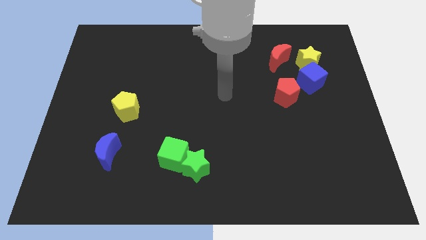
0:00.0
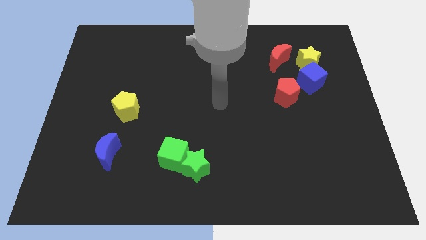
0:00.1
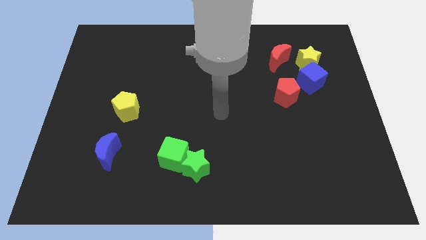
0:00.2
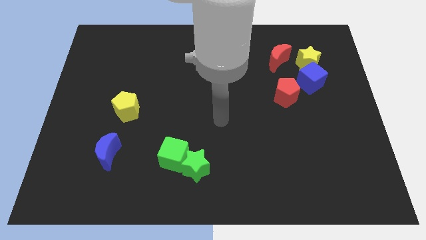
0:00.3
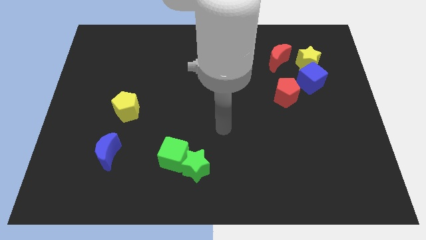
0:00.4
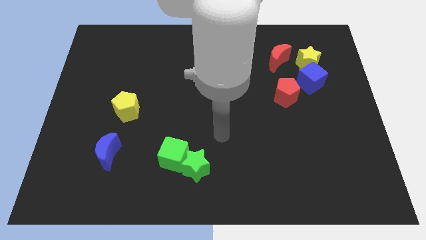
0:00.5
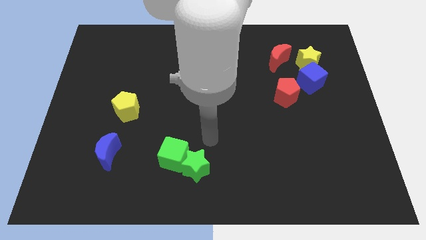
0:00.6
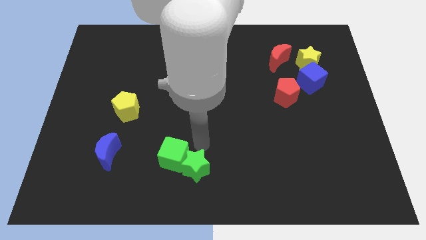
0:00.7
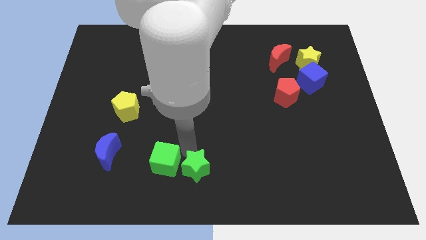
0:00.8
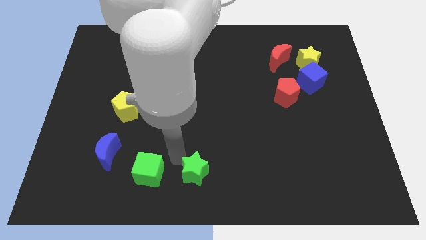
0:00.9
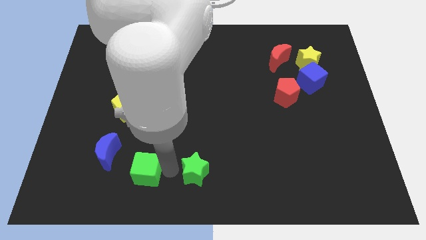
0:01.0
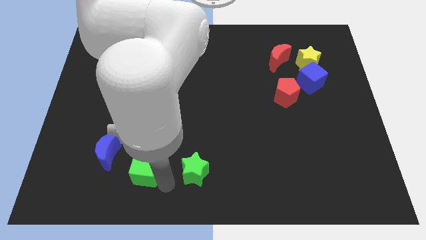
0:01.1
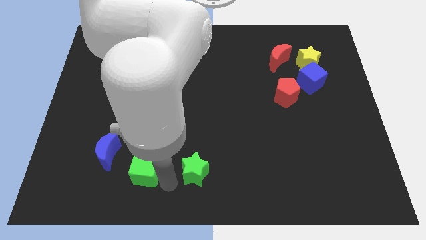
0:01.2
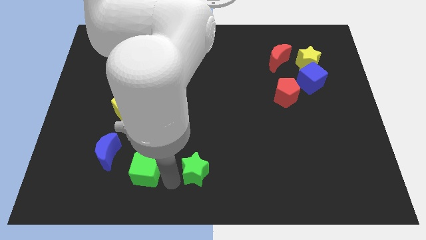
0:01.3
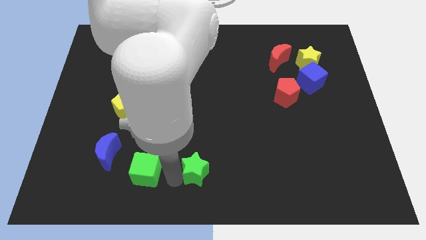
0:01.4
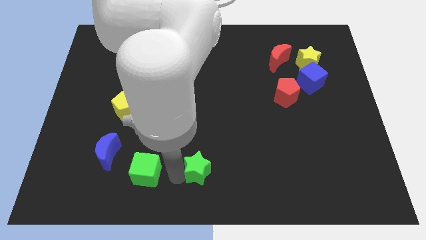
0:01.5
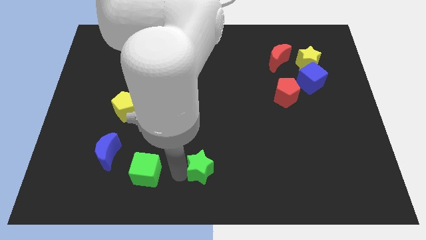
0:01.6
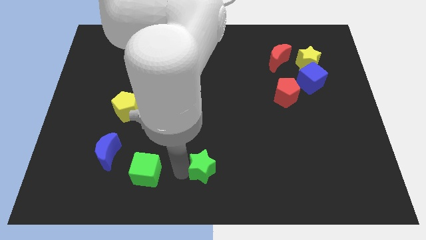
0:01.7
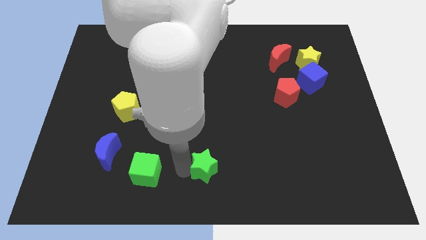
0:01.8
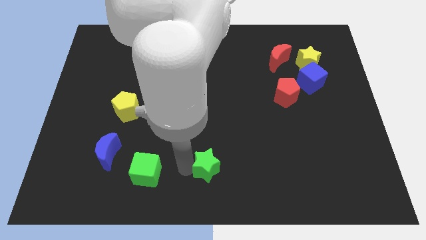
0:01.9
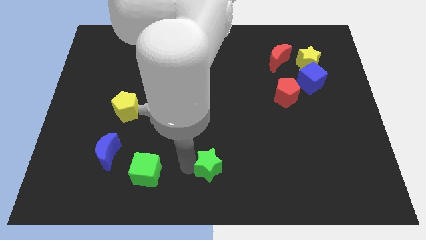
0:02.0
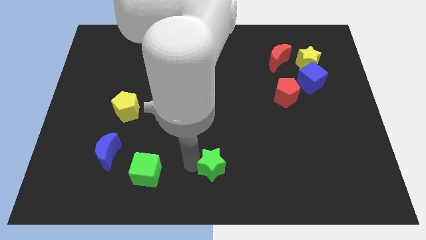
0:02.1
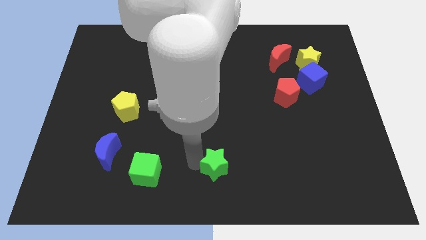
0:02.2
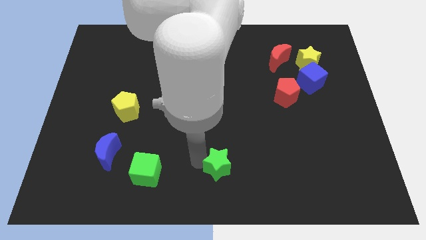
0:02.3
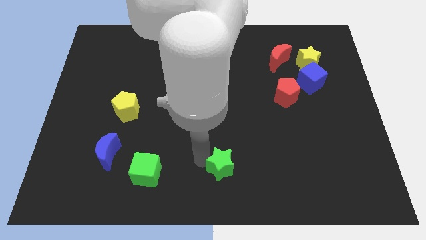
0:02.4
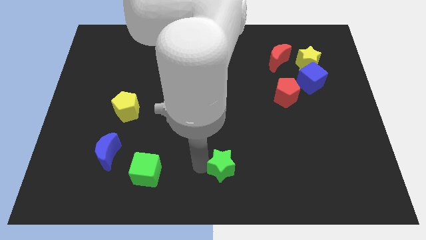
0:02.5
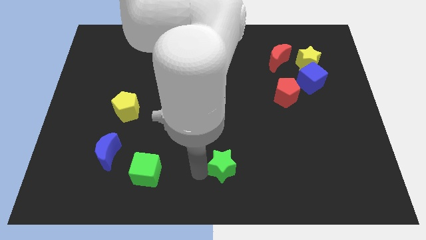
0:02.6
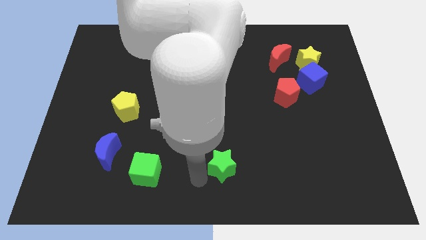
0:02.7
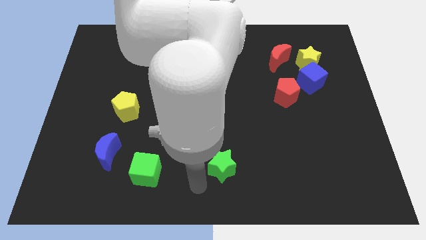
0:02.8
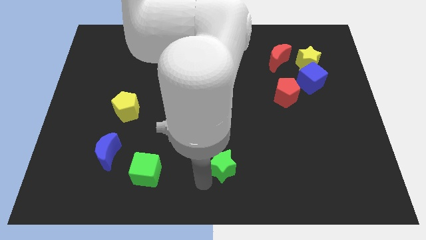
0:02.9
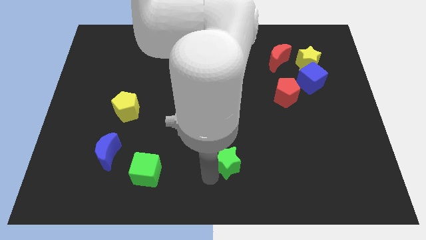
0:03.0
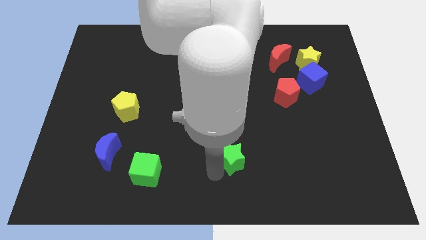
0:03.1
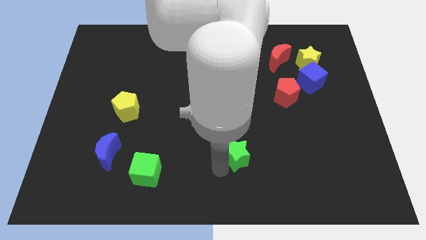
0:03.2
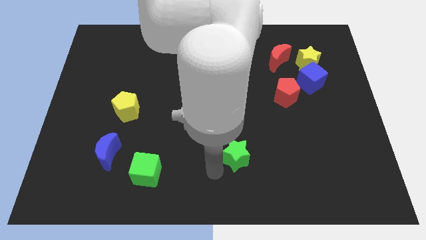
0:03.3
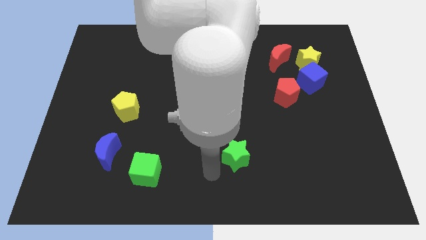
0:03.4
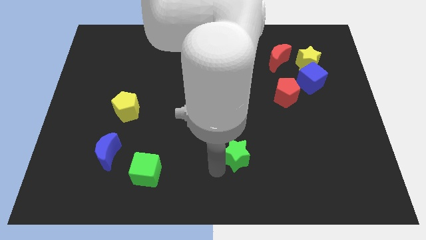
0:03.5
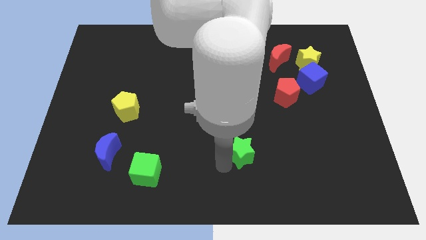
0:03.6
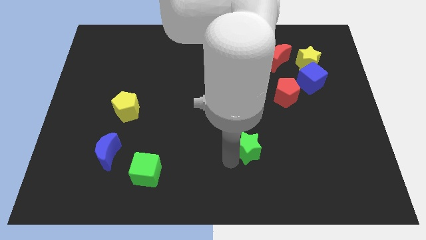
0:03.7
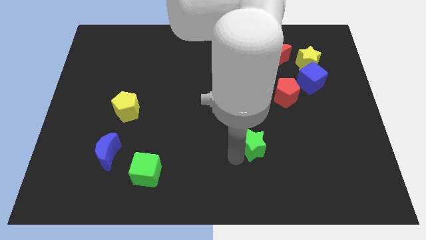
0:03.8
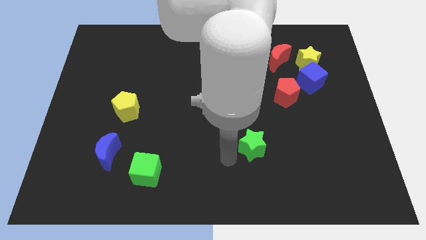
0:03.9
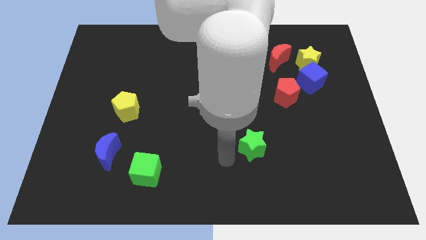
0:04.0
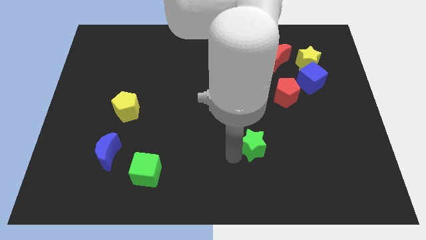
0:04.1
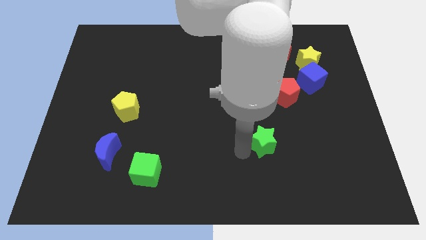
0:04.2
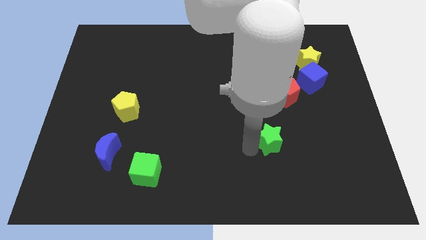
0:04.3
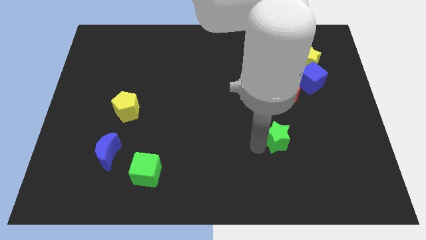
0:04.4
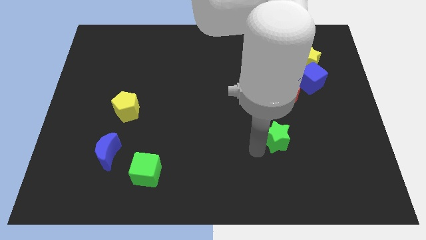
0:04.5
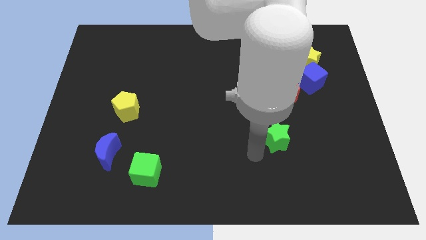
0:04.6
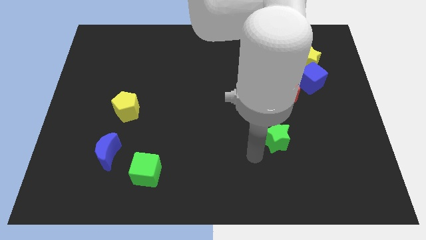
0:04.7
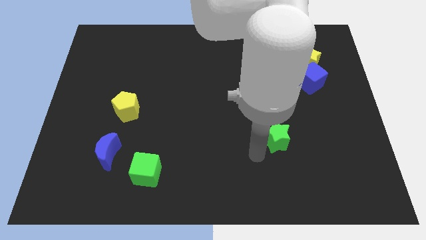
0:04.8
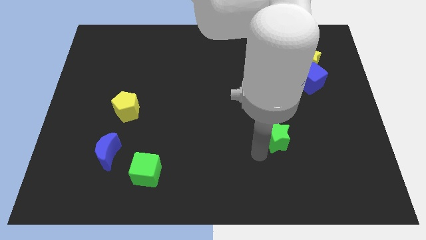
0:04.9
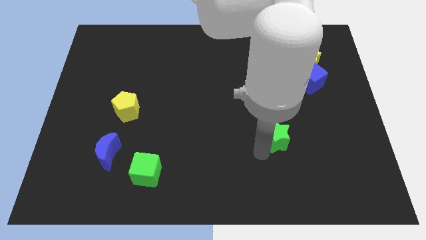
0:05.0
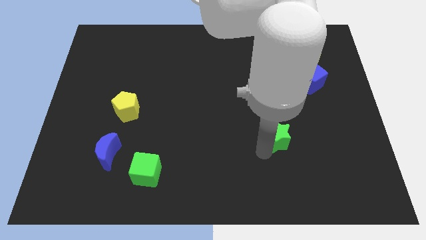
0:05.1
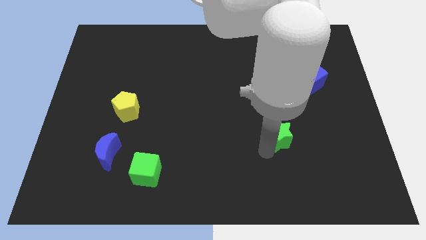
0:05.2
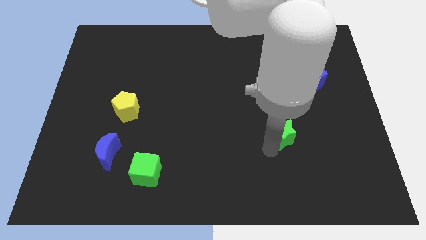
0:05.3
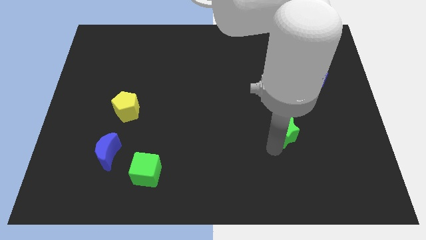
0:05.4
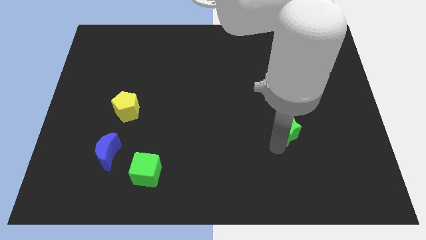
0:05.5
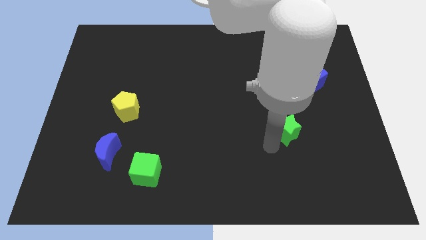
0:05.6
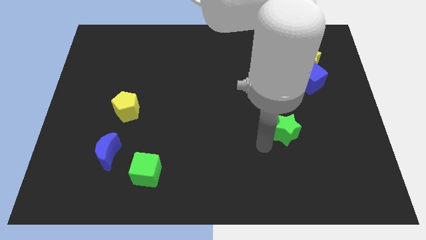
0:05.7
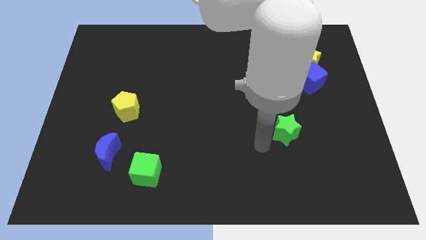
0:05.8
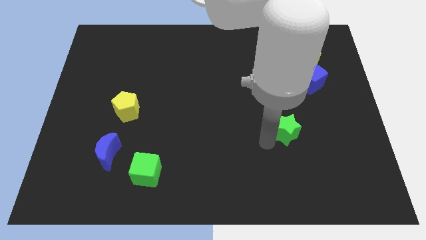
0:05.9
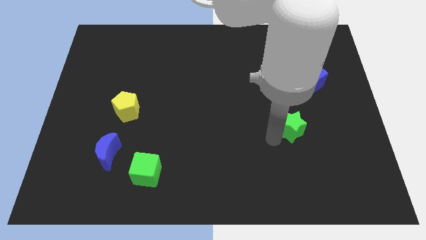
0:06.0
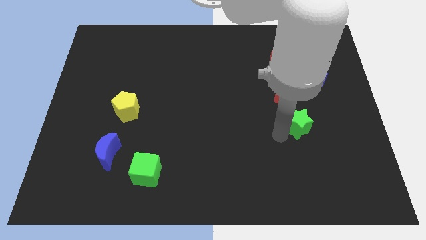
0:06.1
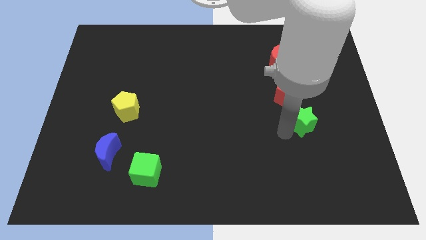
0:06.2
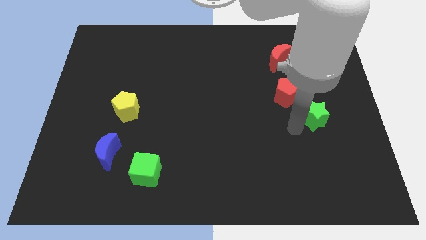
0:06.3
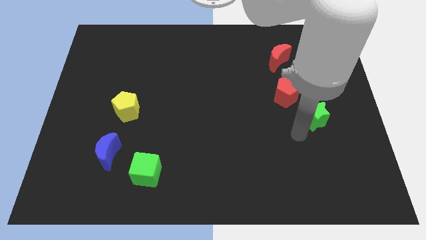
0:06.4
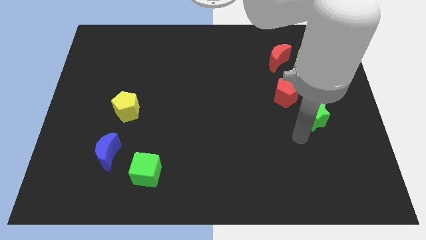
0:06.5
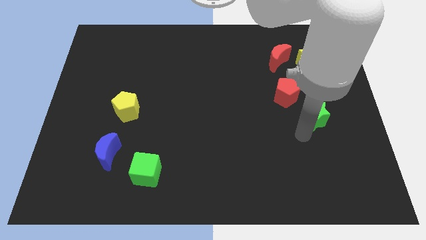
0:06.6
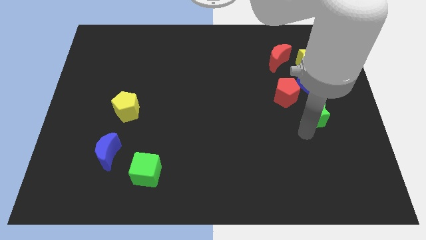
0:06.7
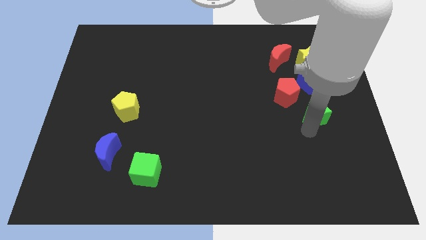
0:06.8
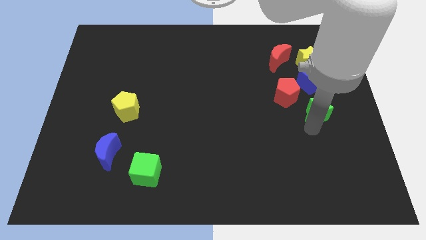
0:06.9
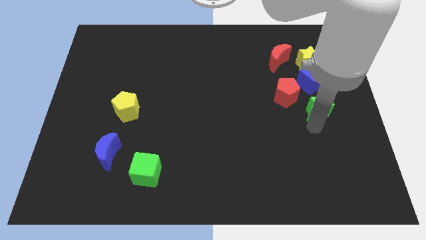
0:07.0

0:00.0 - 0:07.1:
put the green star just right of the red pentagon
